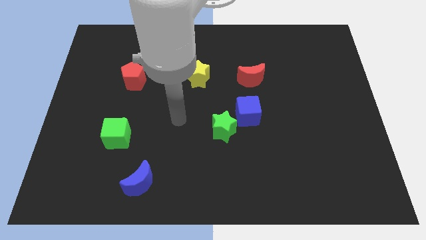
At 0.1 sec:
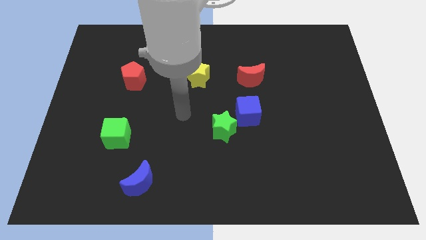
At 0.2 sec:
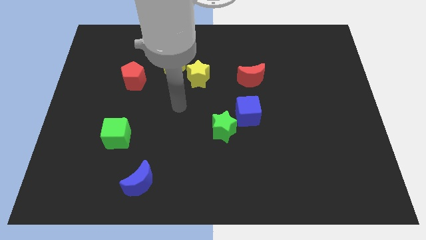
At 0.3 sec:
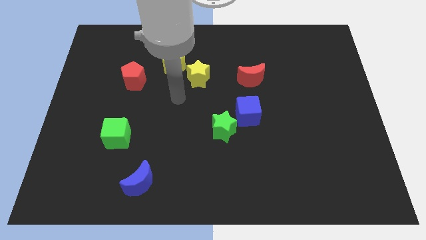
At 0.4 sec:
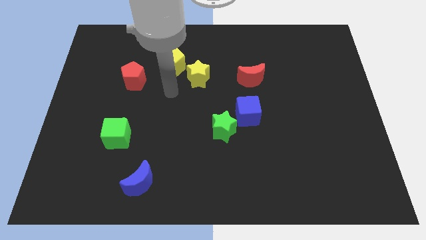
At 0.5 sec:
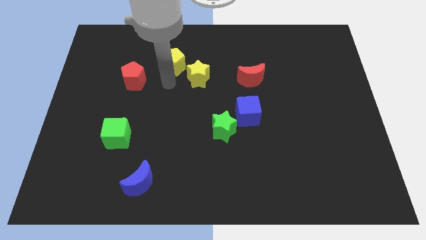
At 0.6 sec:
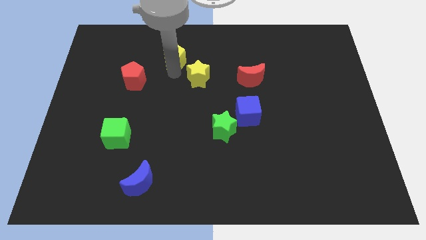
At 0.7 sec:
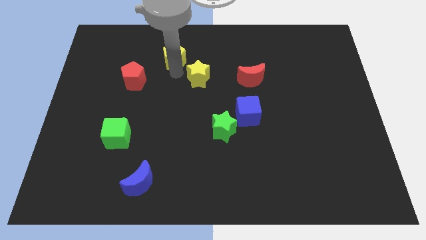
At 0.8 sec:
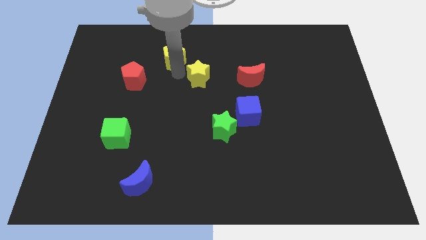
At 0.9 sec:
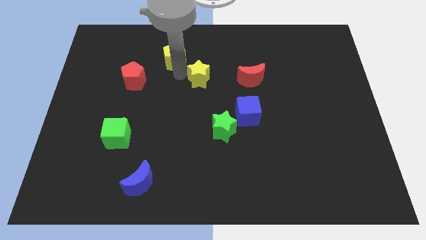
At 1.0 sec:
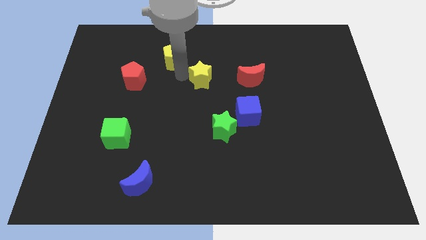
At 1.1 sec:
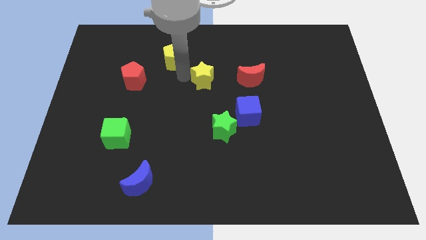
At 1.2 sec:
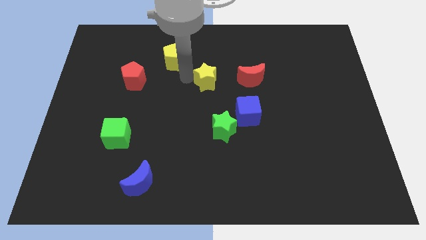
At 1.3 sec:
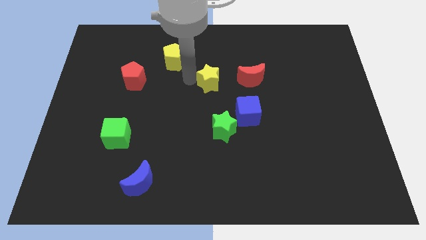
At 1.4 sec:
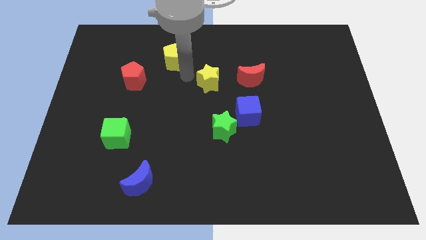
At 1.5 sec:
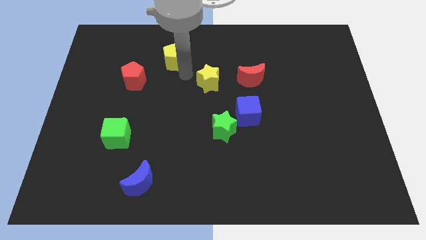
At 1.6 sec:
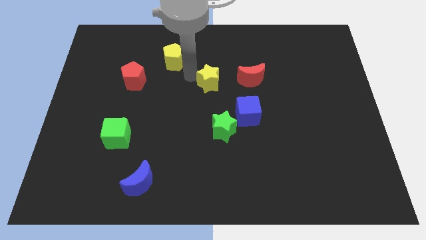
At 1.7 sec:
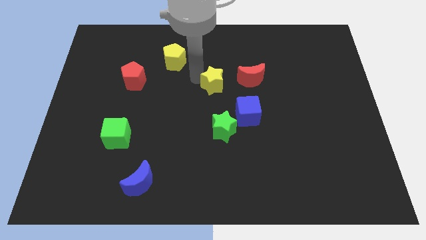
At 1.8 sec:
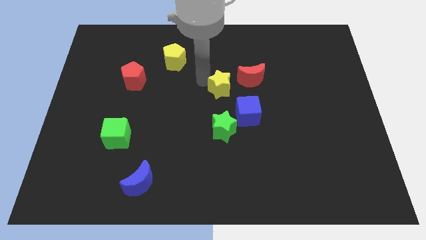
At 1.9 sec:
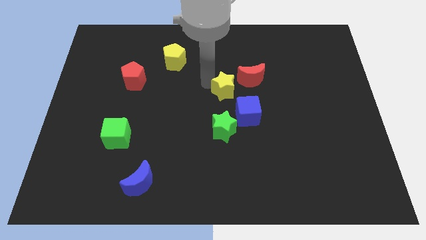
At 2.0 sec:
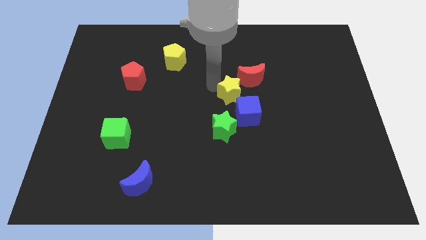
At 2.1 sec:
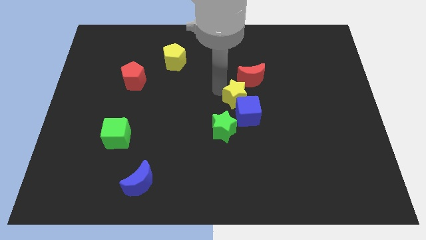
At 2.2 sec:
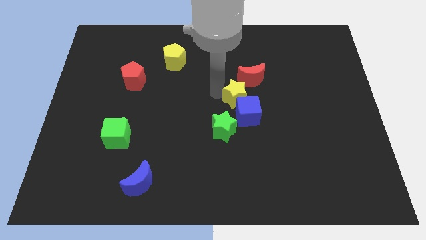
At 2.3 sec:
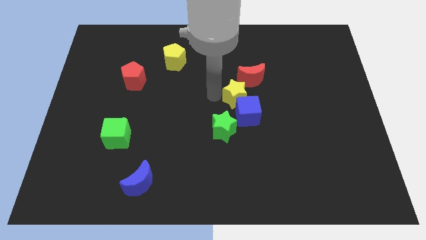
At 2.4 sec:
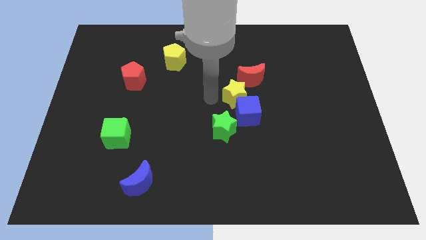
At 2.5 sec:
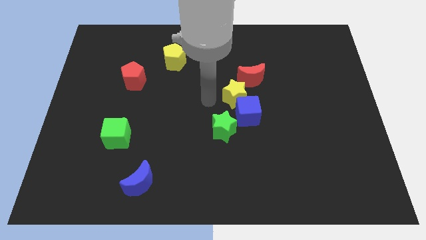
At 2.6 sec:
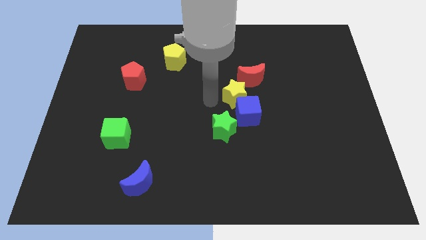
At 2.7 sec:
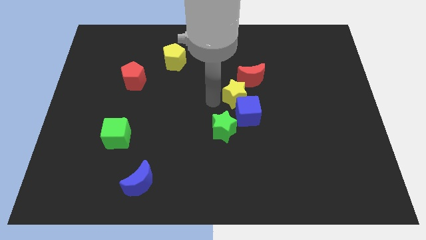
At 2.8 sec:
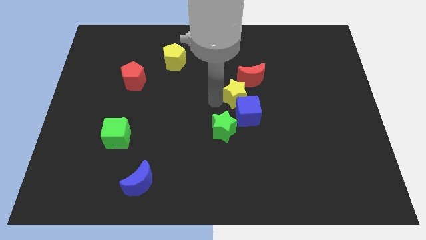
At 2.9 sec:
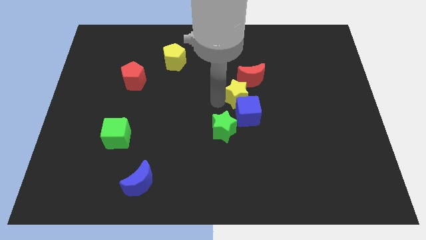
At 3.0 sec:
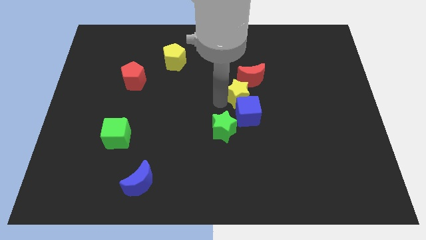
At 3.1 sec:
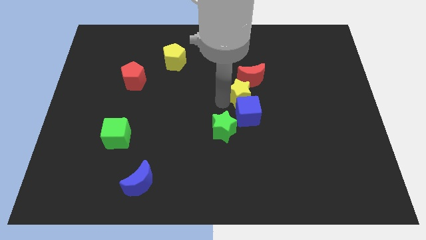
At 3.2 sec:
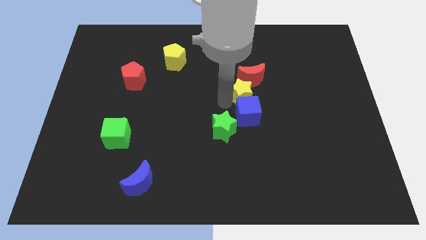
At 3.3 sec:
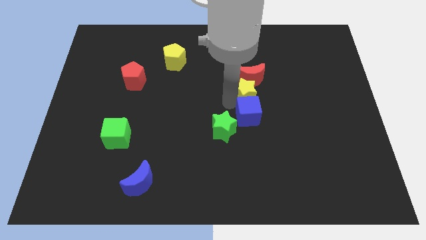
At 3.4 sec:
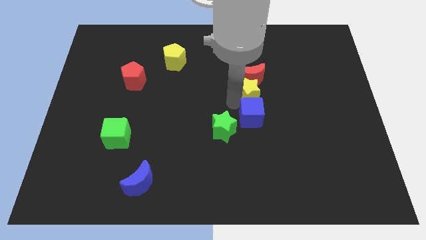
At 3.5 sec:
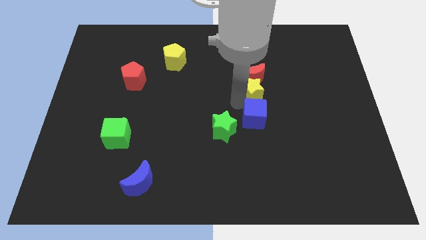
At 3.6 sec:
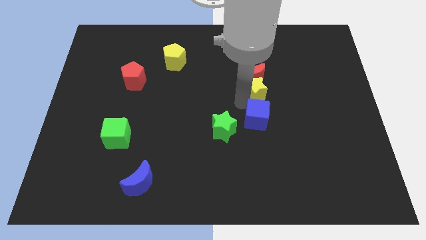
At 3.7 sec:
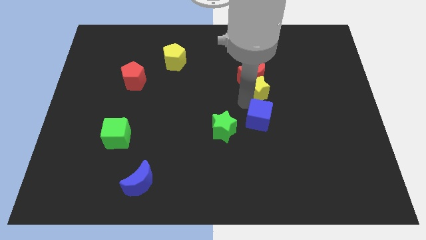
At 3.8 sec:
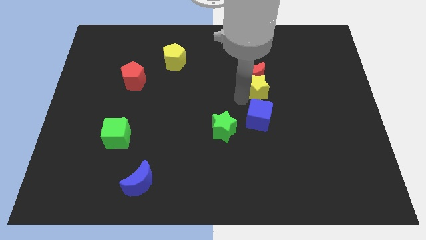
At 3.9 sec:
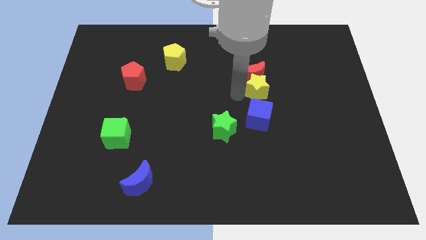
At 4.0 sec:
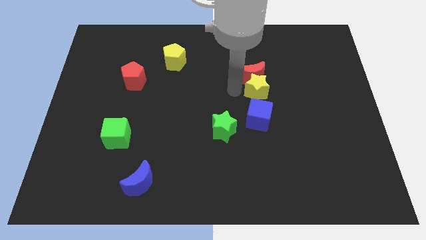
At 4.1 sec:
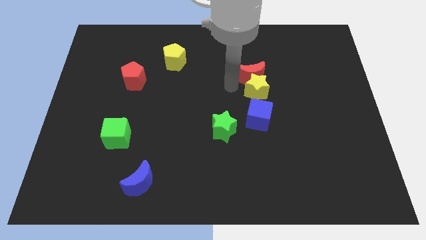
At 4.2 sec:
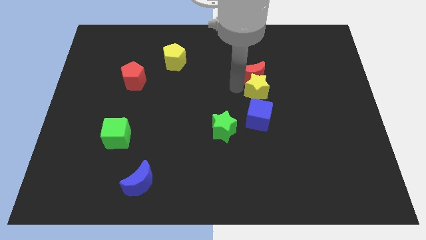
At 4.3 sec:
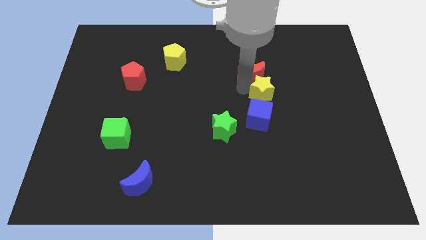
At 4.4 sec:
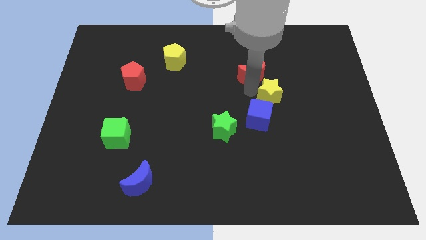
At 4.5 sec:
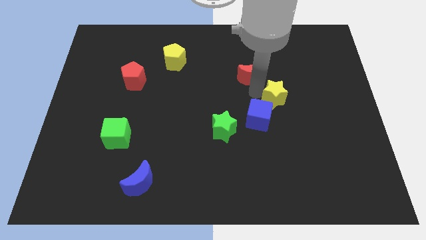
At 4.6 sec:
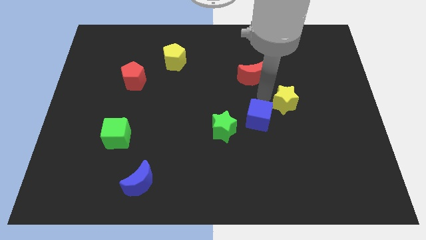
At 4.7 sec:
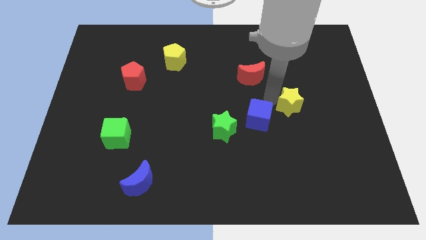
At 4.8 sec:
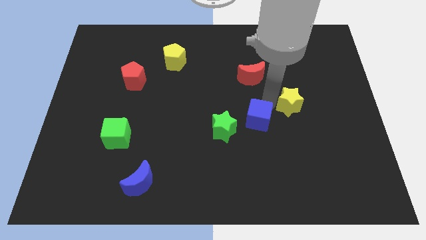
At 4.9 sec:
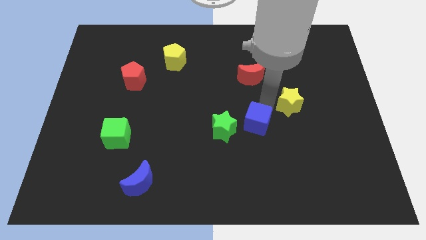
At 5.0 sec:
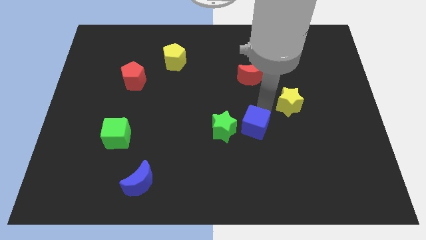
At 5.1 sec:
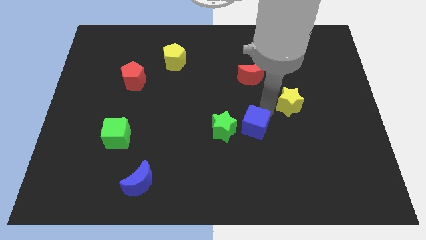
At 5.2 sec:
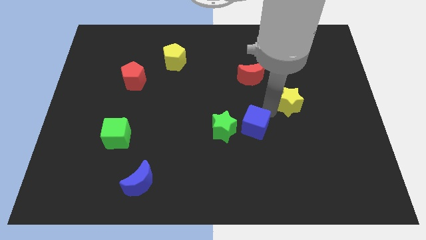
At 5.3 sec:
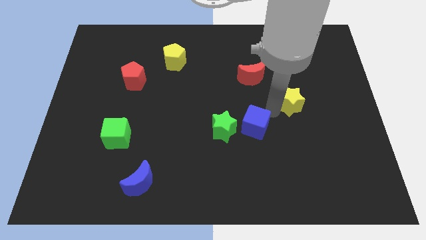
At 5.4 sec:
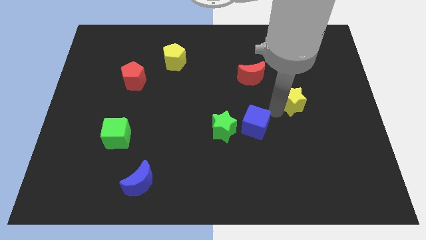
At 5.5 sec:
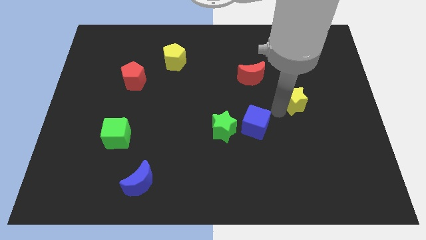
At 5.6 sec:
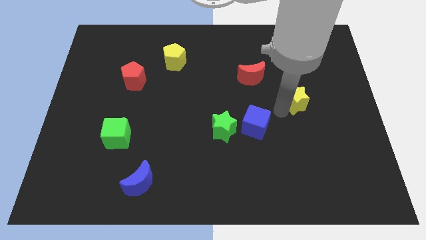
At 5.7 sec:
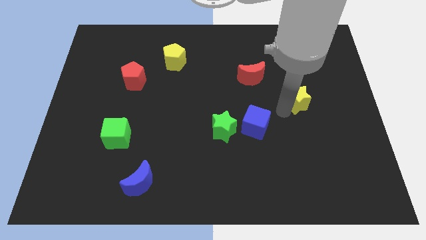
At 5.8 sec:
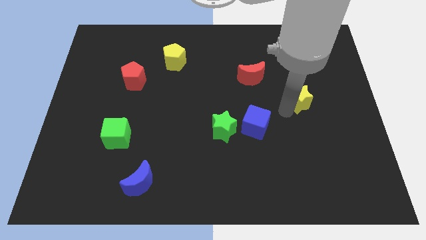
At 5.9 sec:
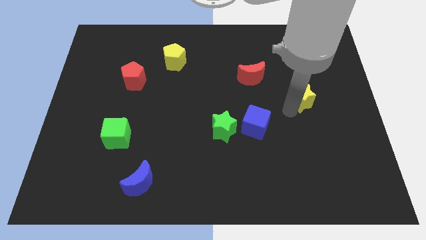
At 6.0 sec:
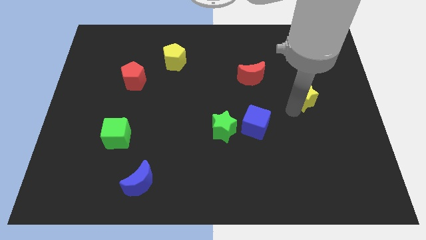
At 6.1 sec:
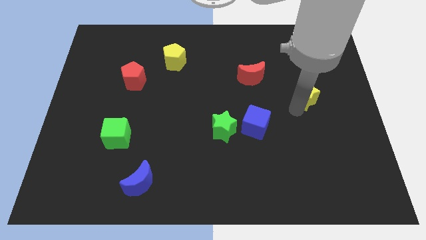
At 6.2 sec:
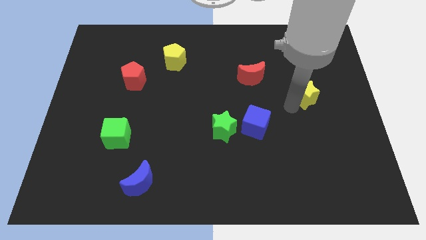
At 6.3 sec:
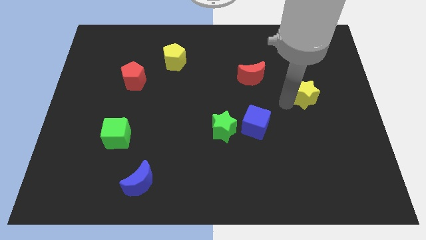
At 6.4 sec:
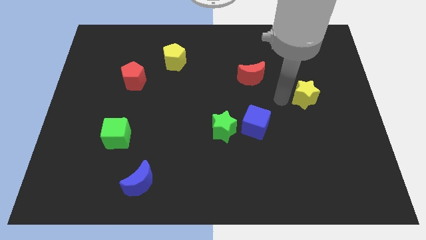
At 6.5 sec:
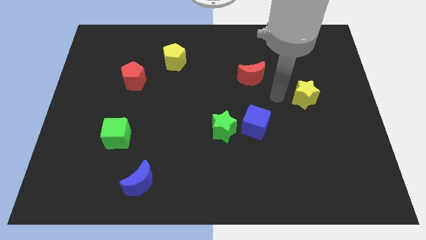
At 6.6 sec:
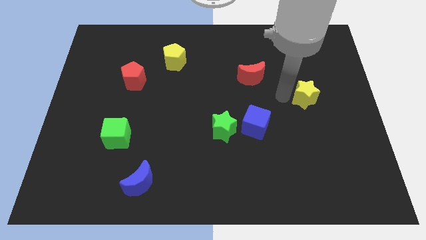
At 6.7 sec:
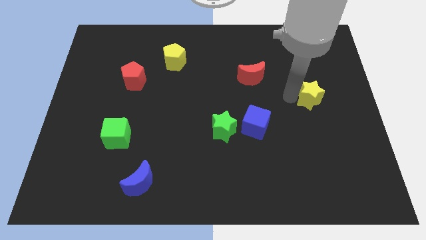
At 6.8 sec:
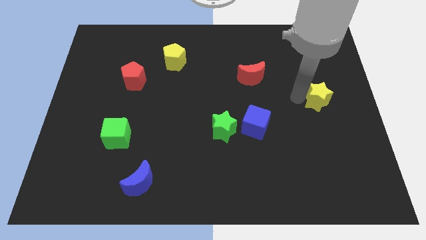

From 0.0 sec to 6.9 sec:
move the yellow star to the right side of the board
